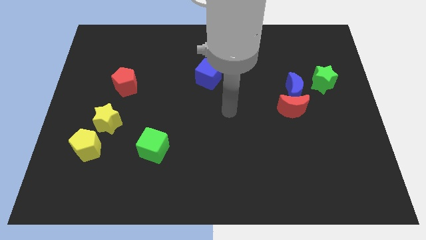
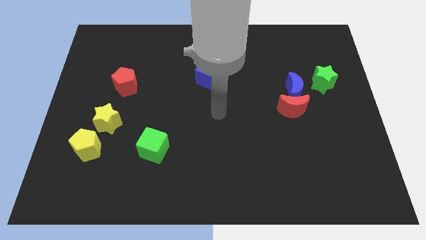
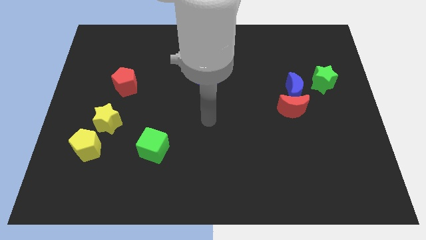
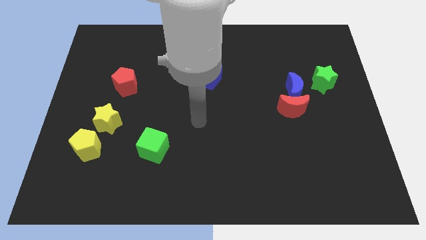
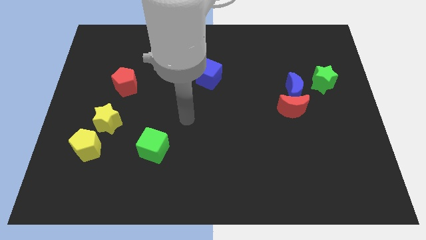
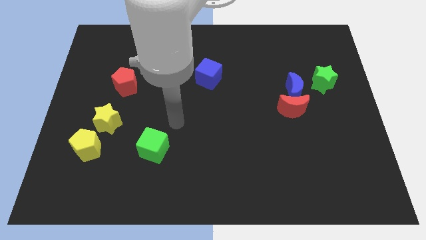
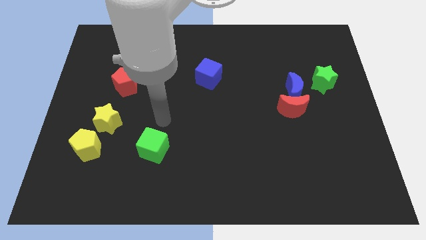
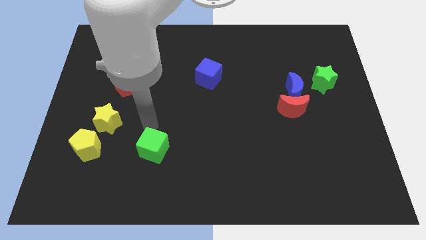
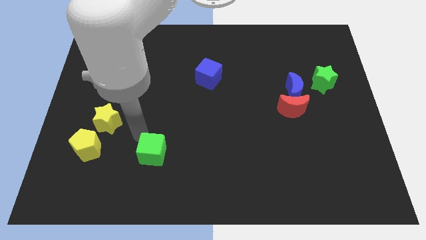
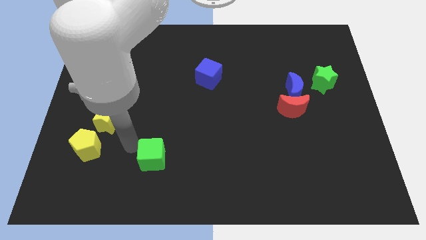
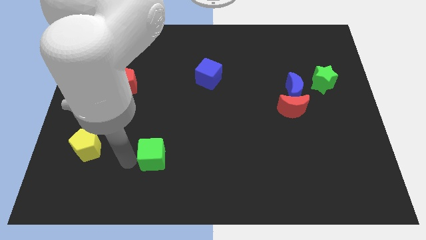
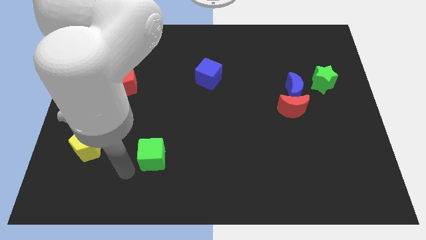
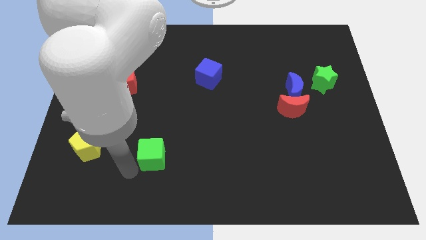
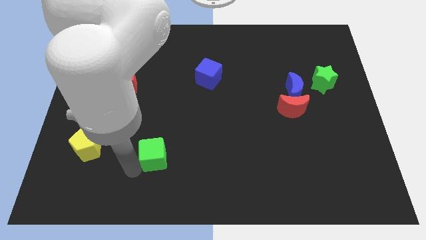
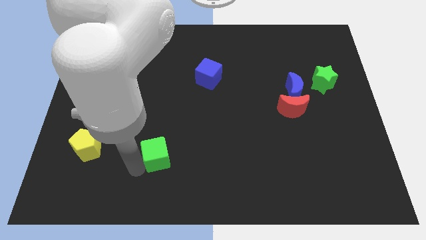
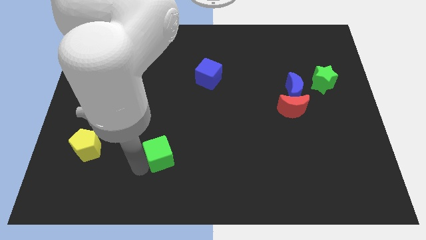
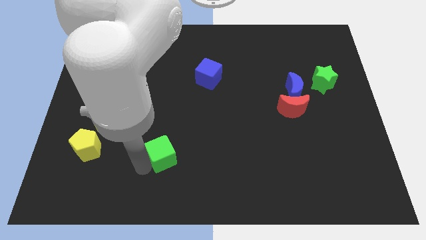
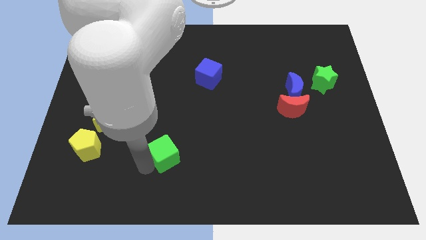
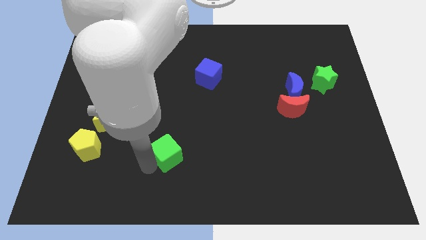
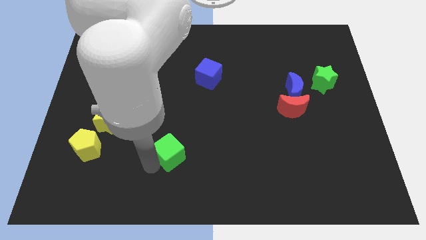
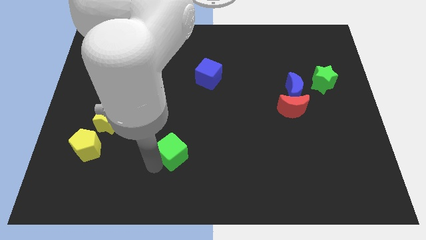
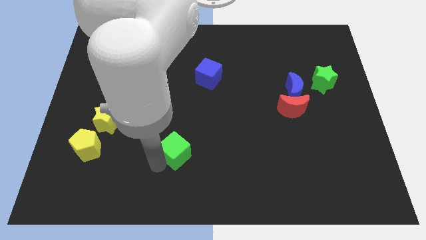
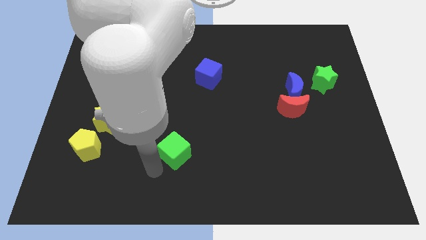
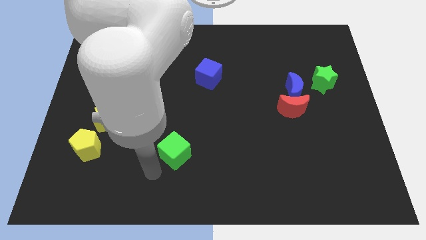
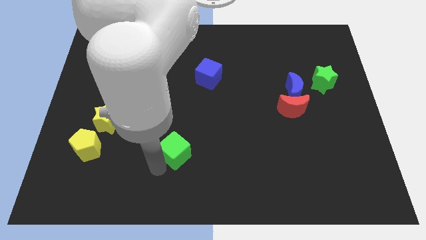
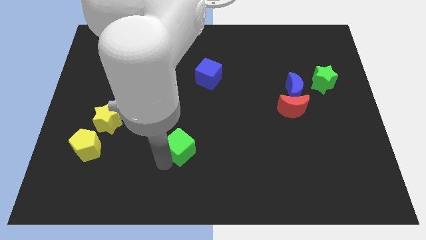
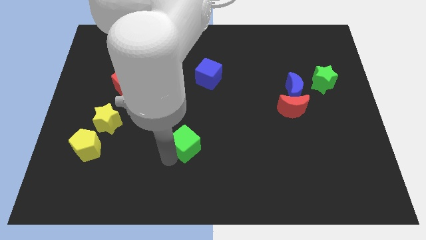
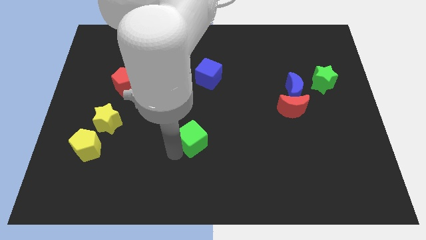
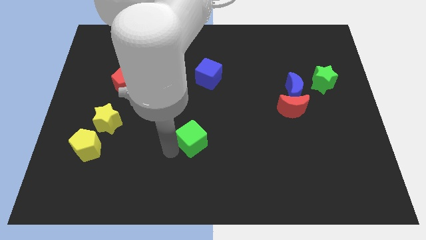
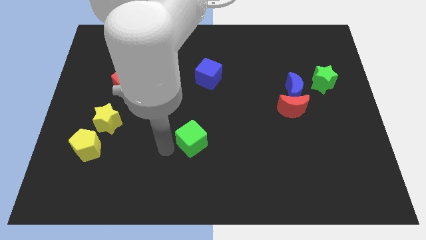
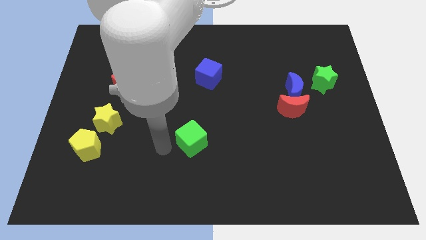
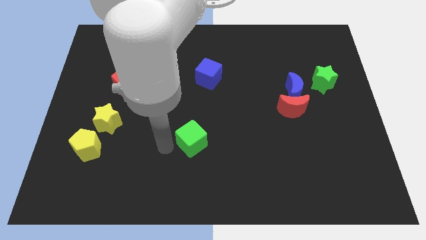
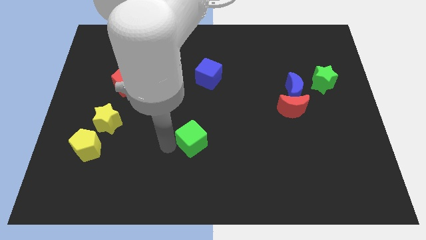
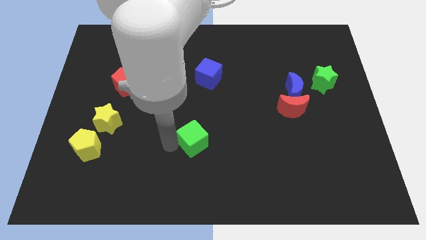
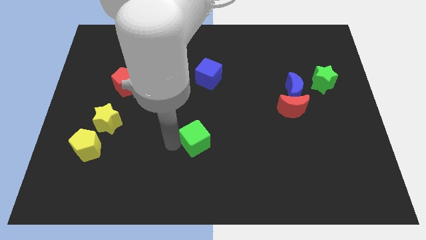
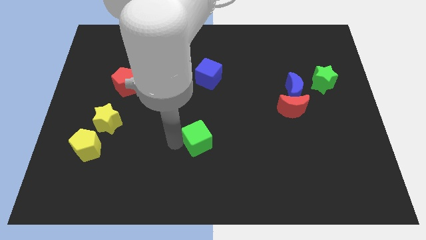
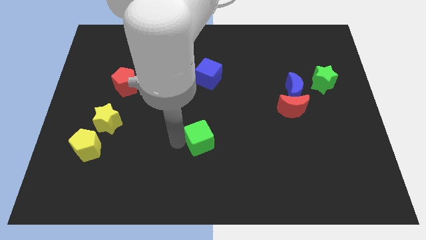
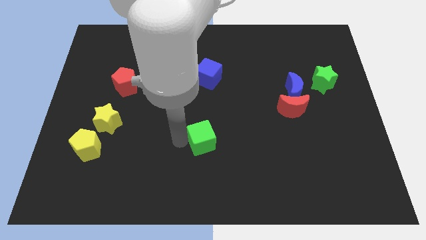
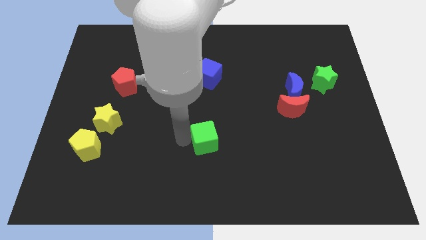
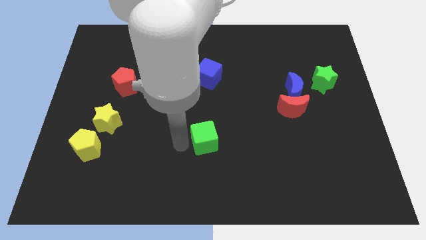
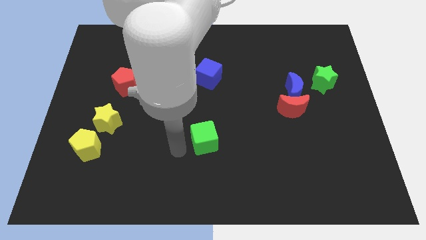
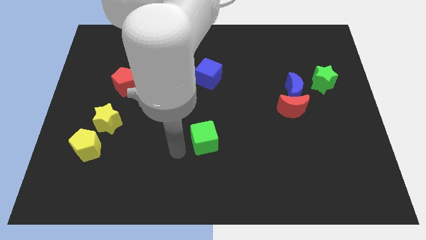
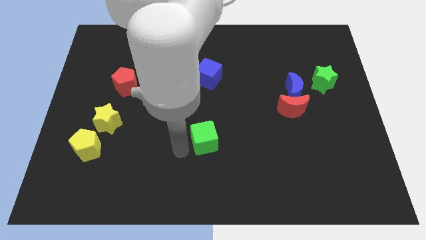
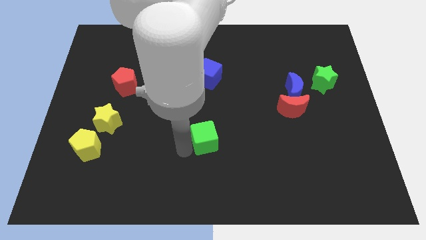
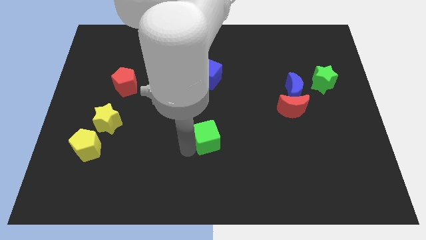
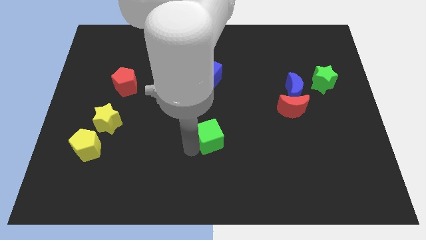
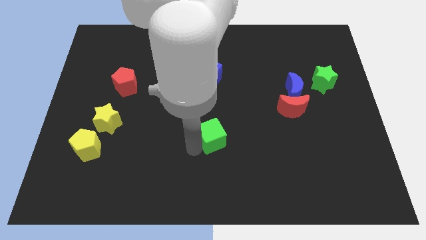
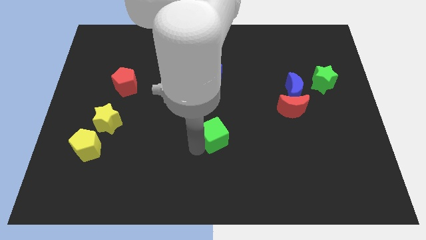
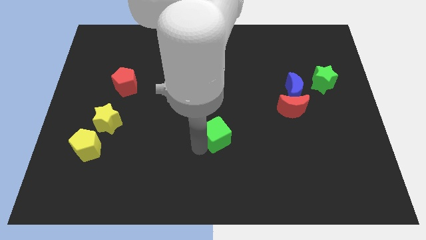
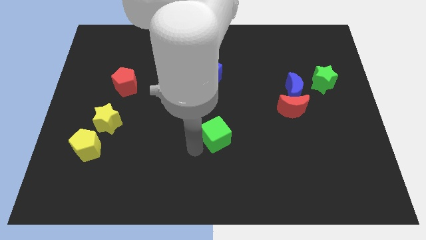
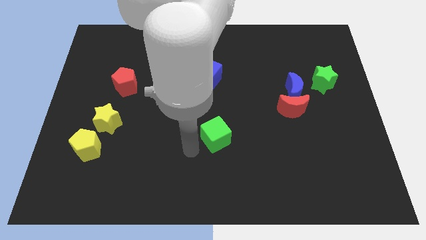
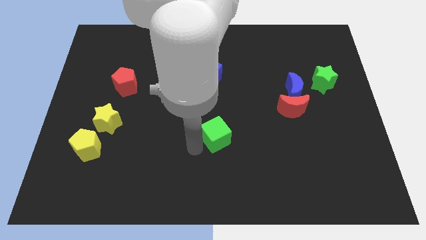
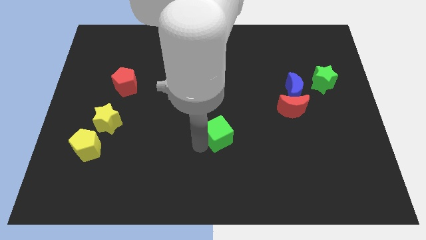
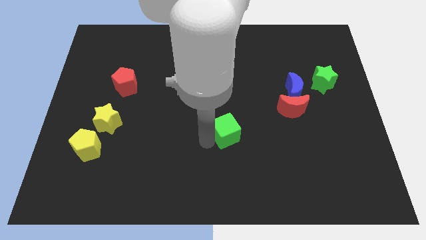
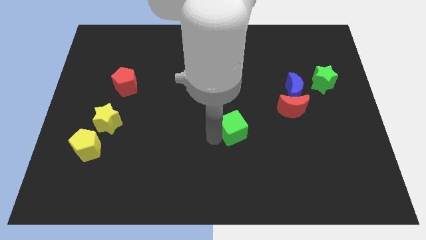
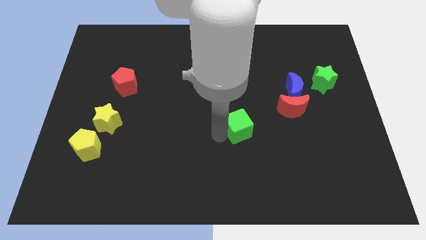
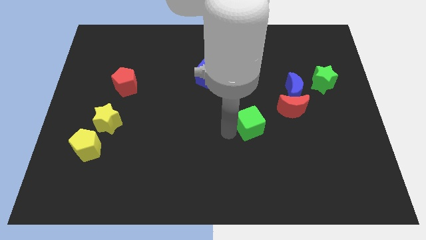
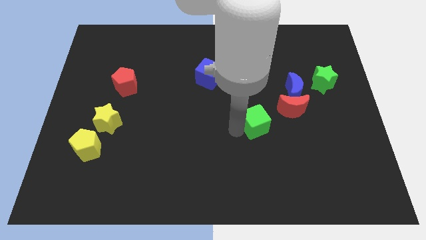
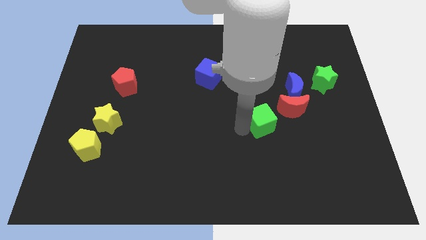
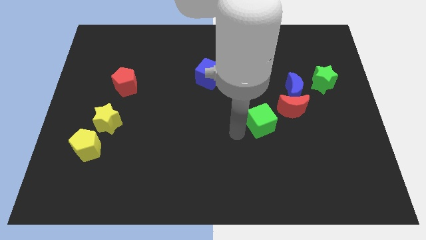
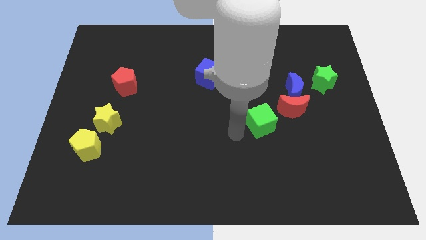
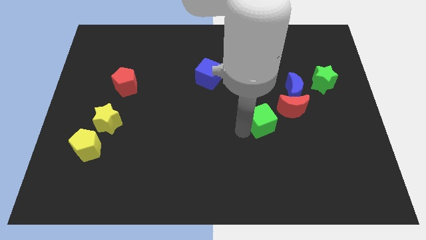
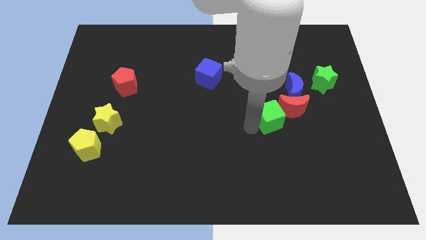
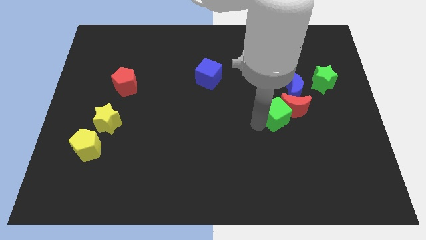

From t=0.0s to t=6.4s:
put the green cube to the red moon

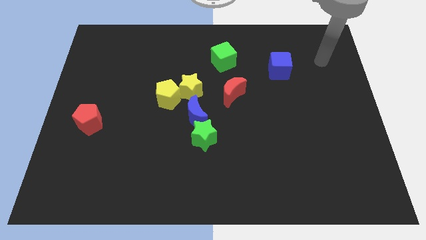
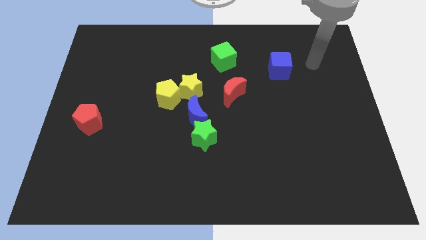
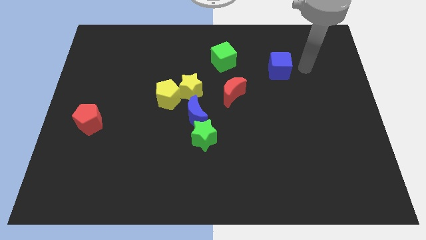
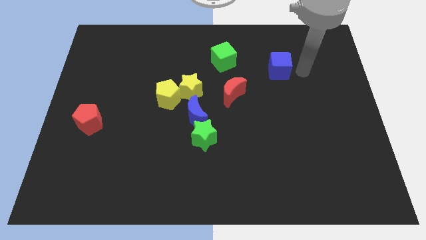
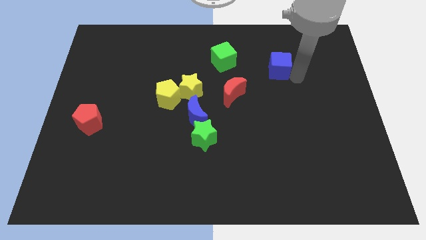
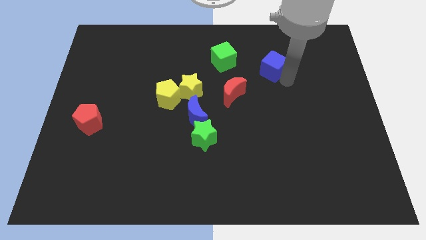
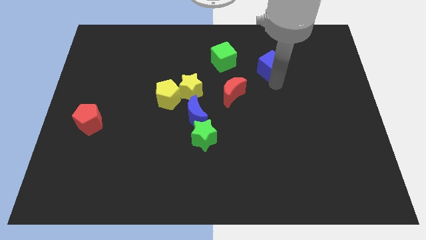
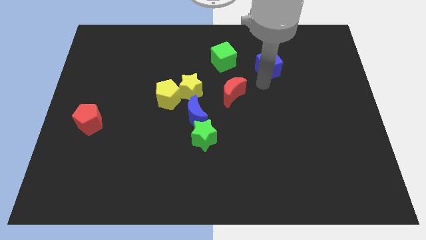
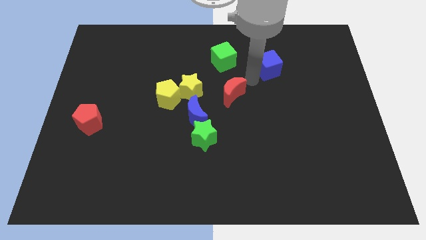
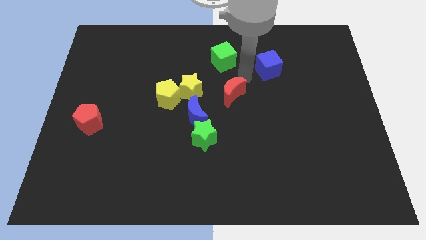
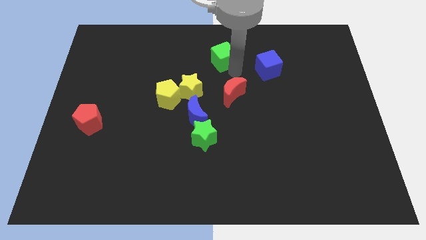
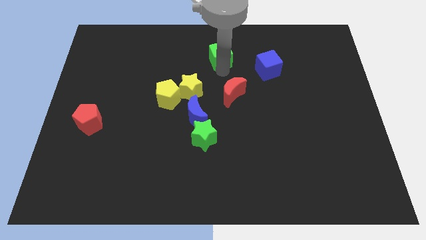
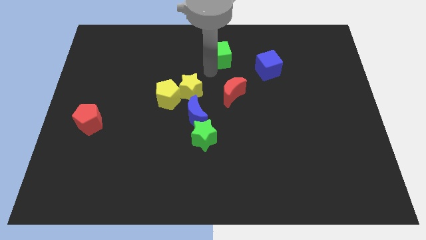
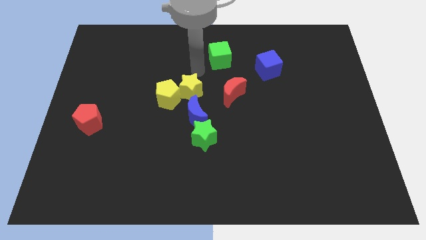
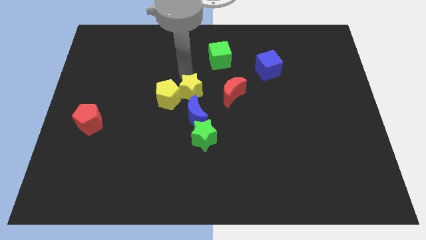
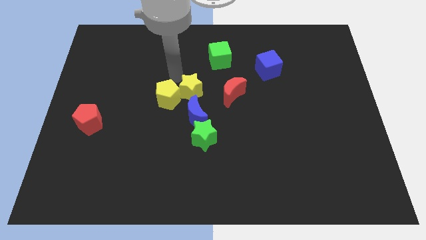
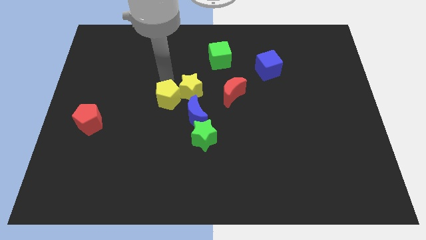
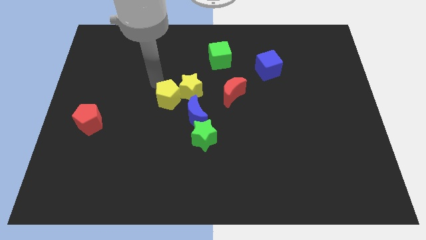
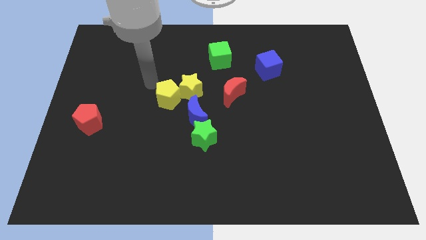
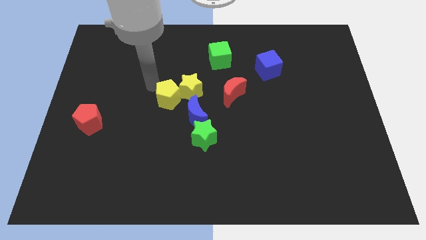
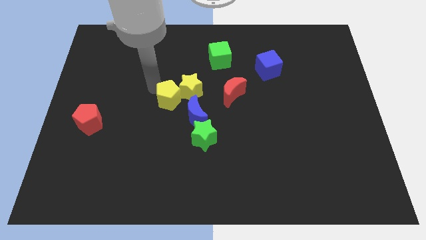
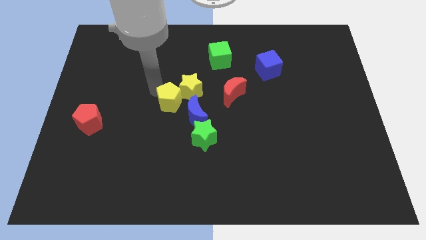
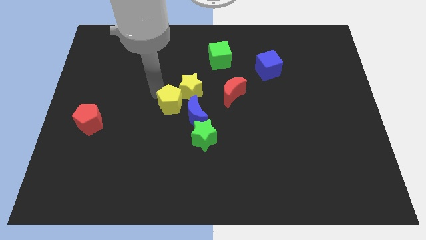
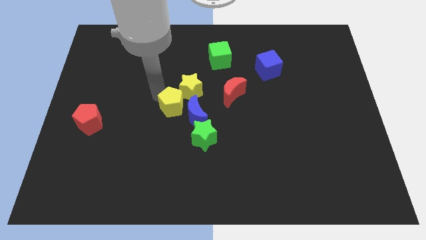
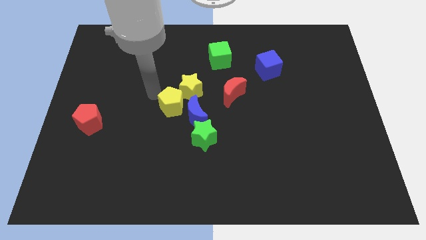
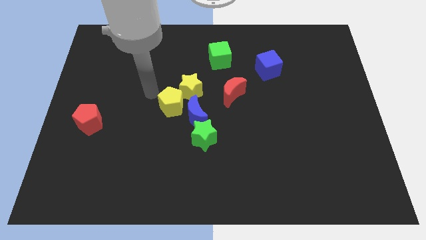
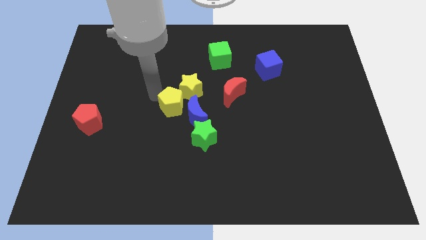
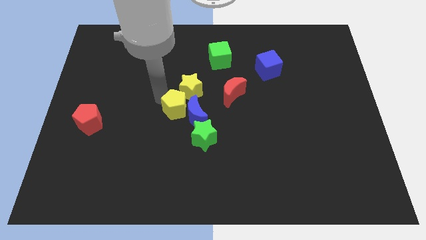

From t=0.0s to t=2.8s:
slide the yellow pentagon next to the blue moon
